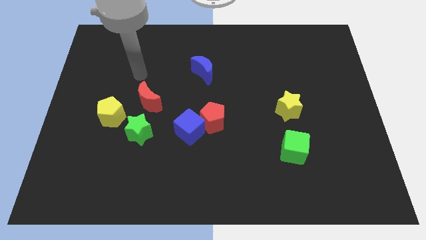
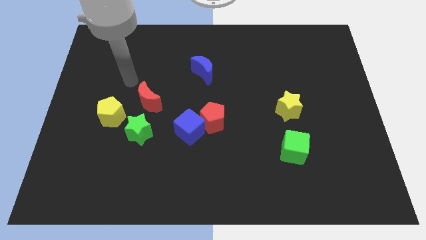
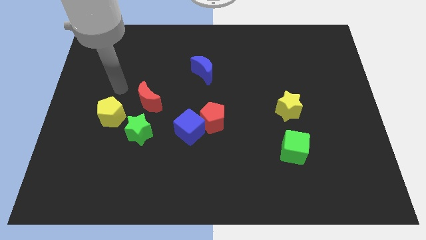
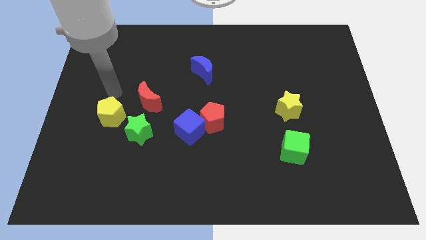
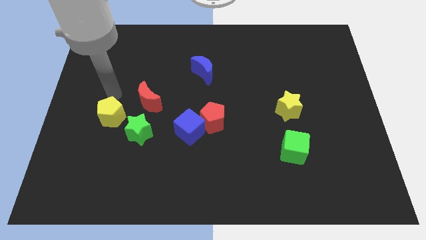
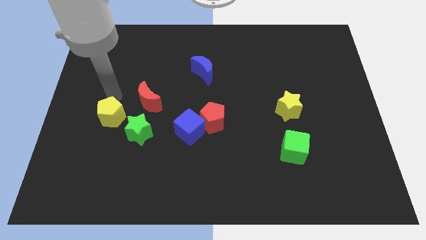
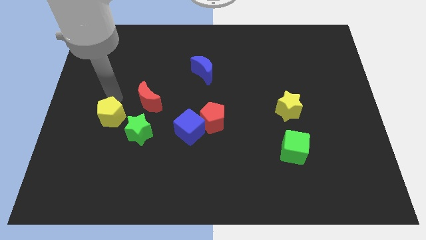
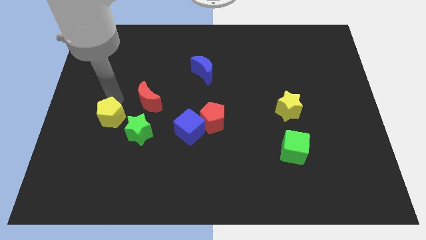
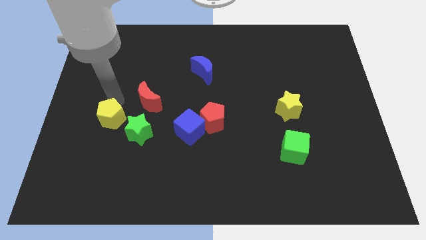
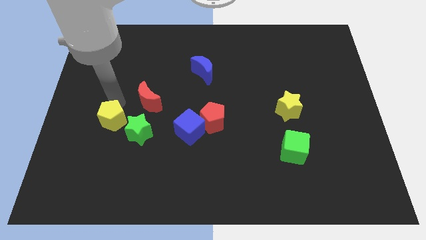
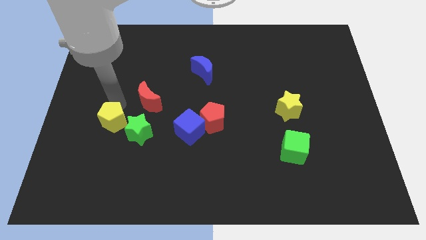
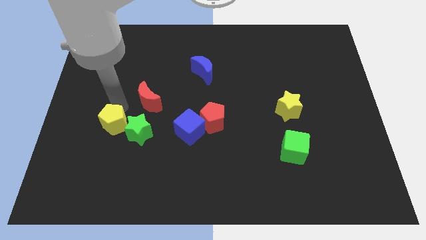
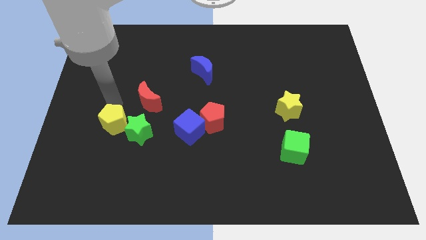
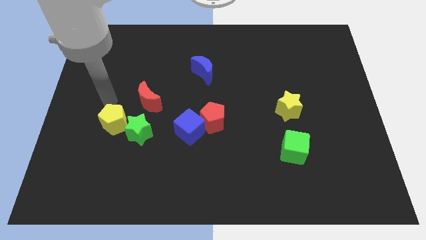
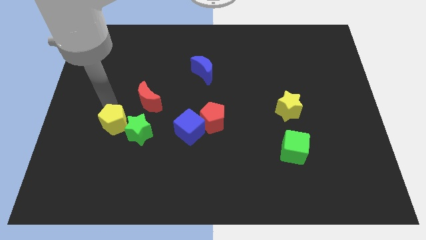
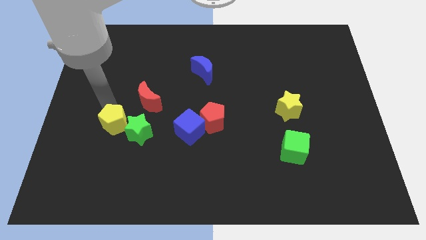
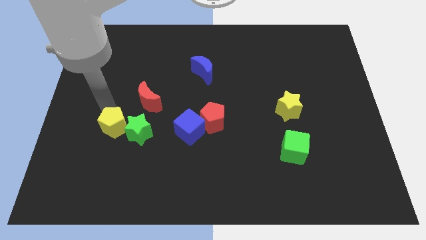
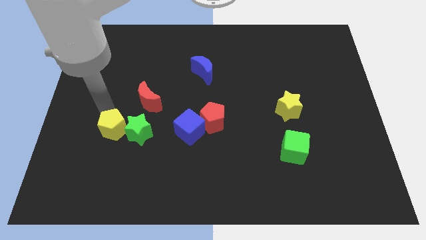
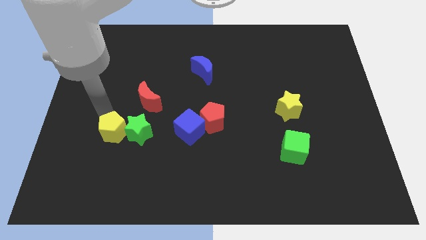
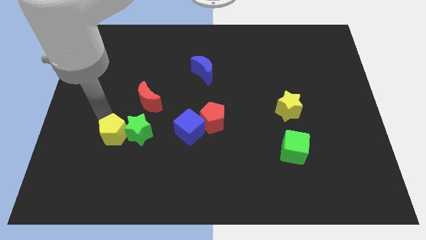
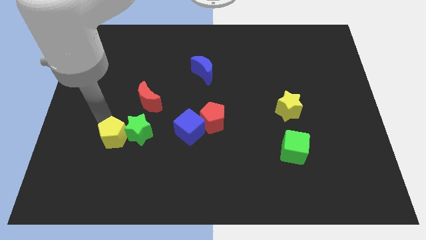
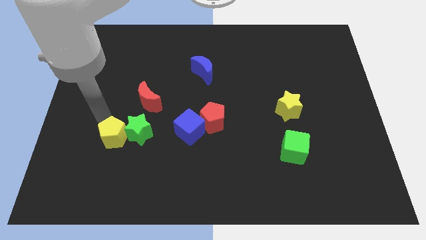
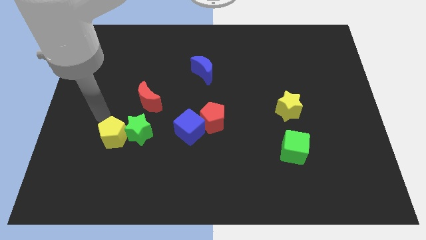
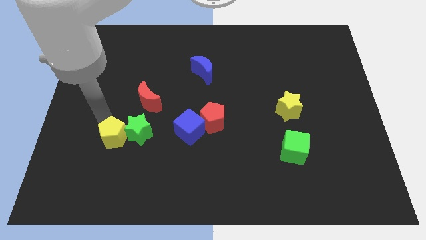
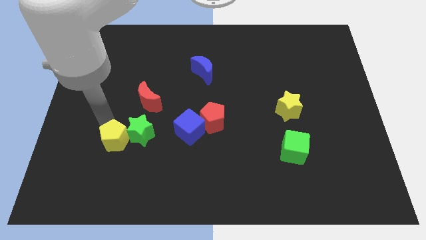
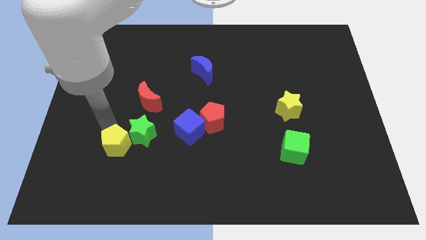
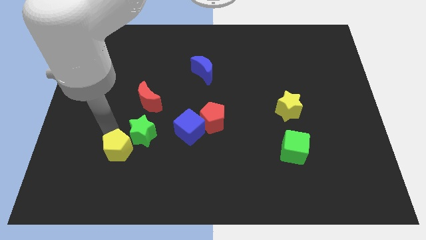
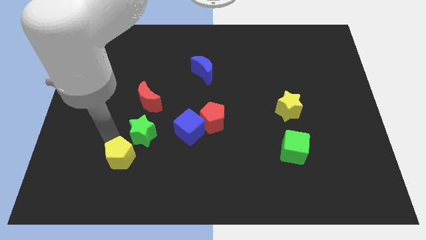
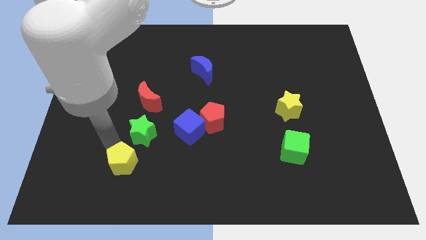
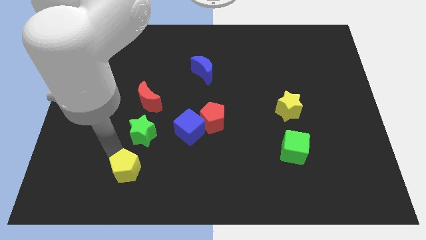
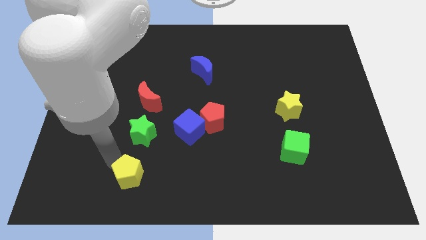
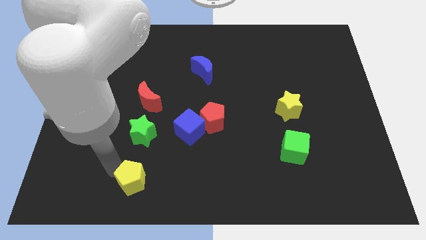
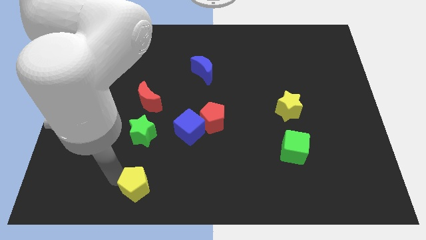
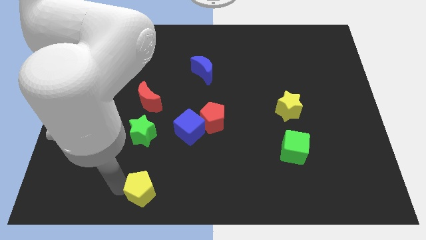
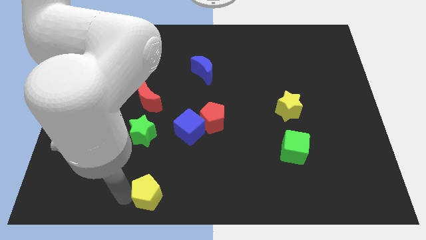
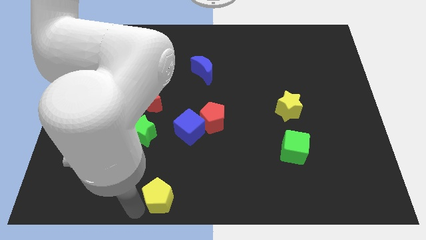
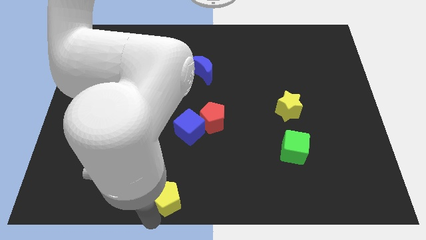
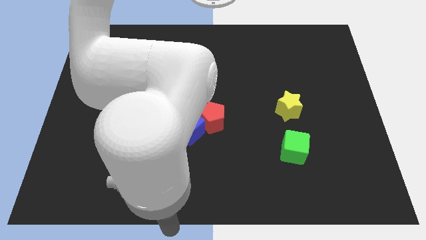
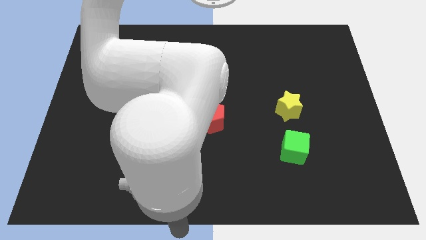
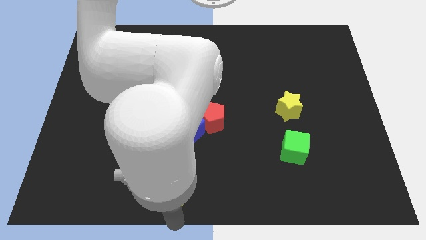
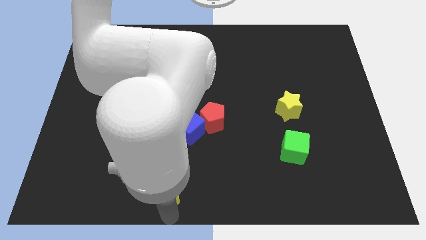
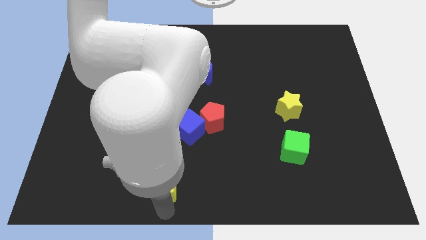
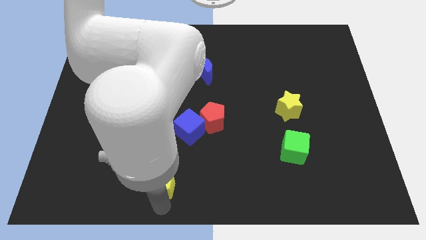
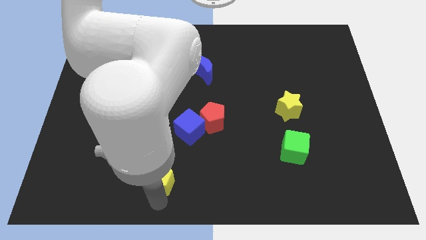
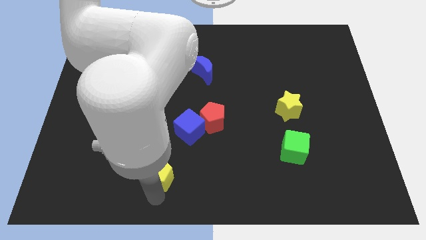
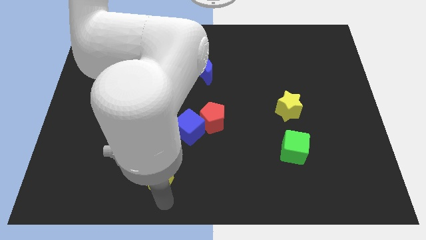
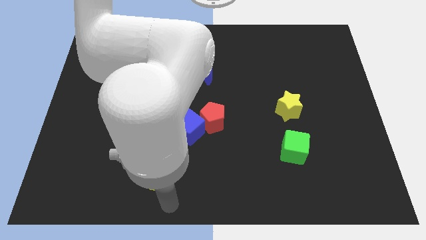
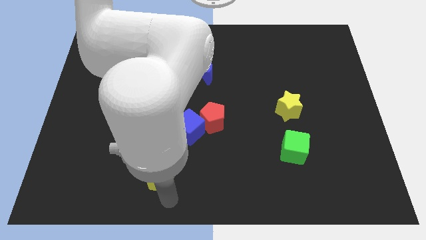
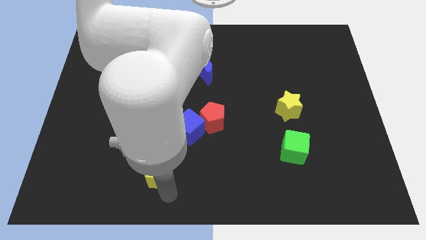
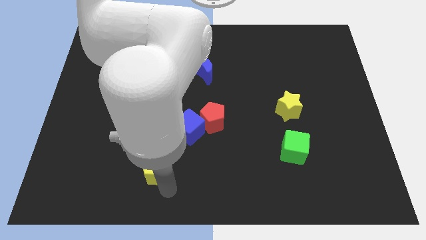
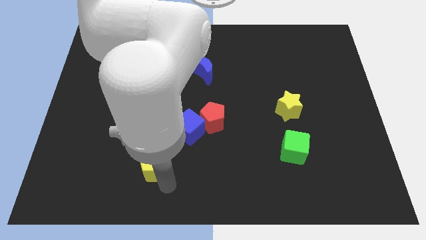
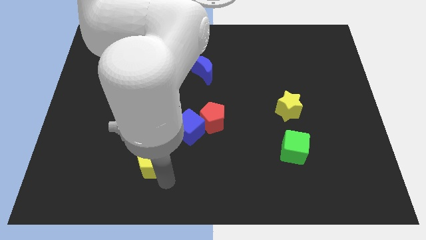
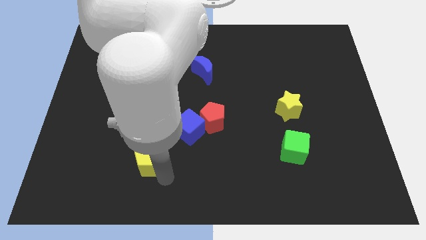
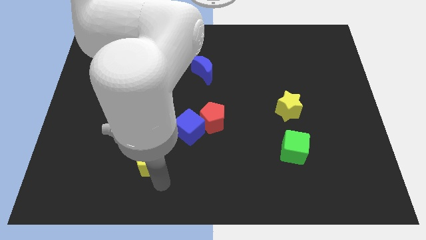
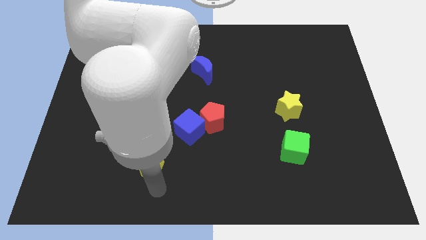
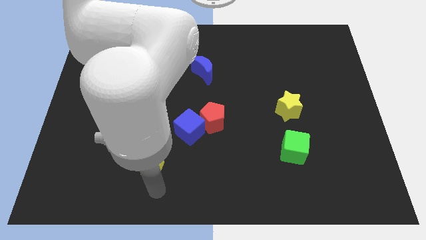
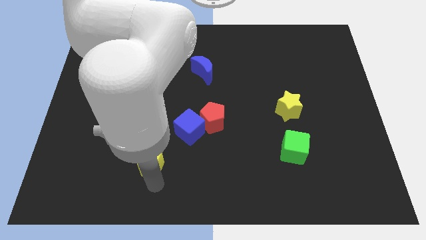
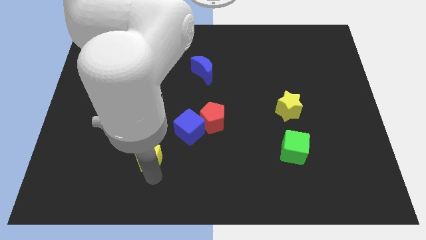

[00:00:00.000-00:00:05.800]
slide the yellow pentagon below the red moon

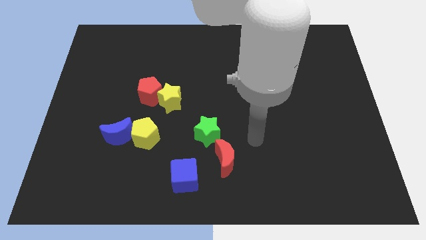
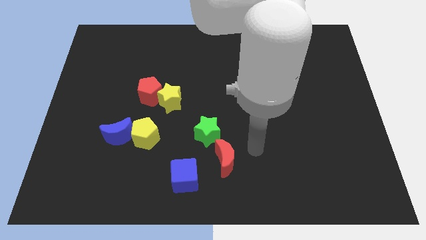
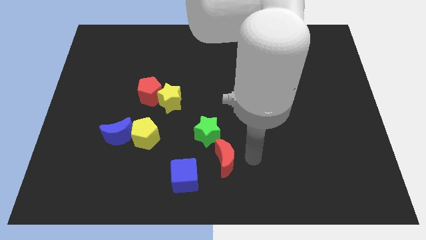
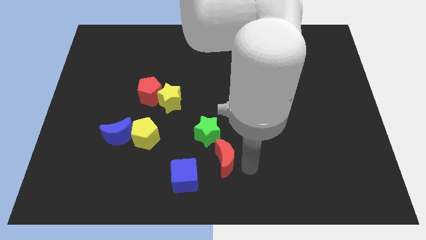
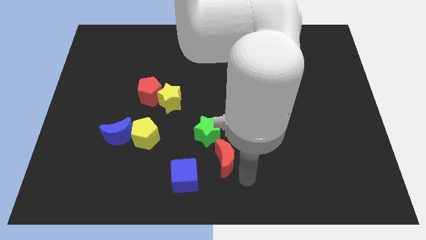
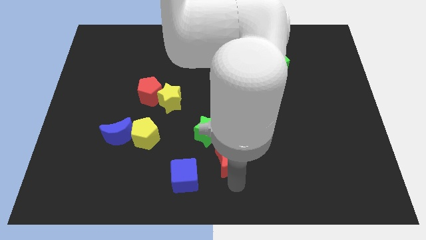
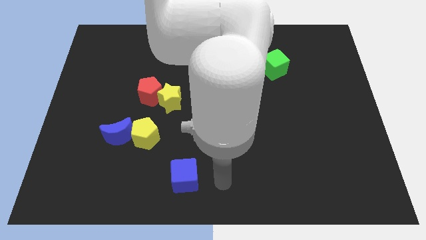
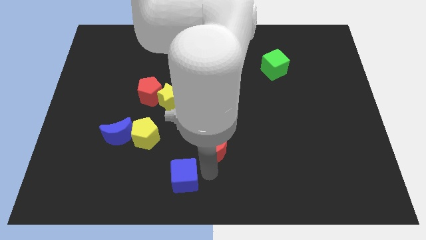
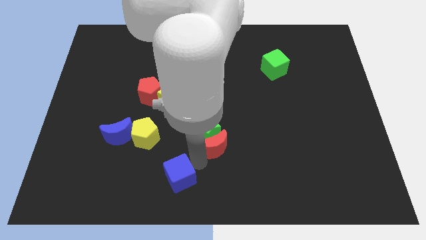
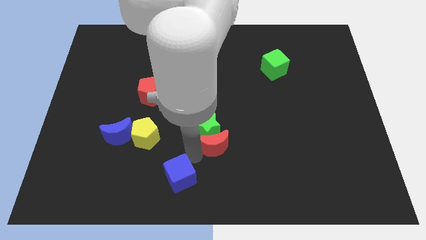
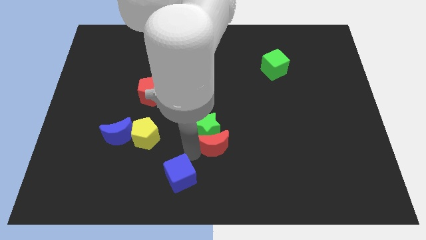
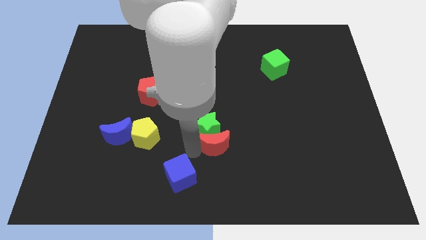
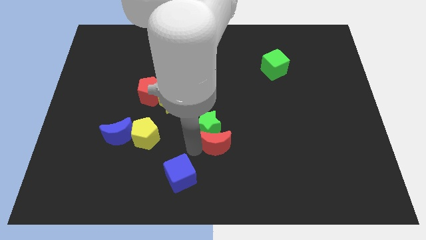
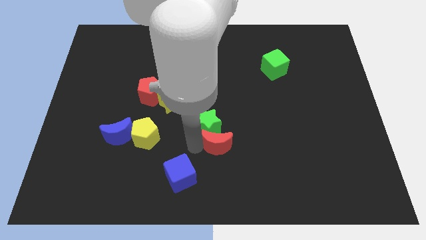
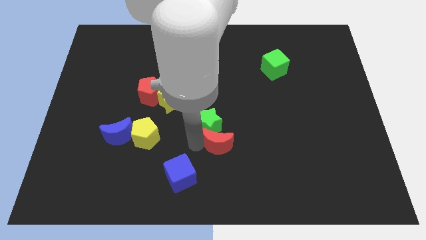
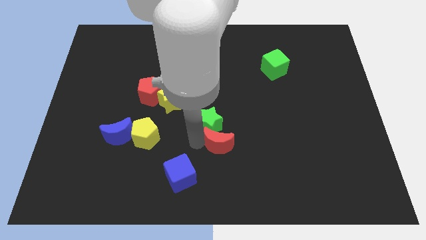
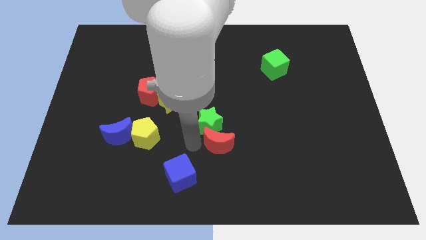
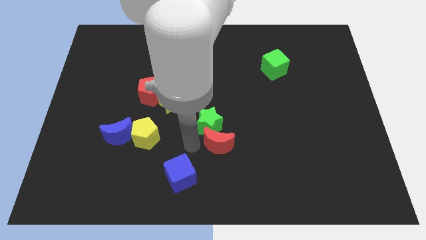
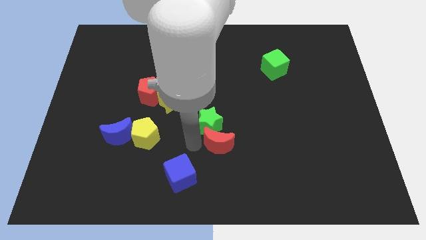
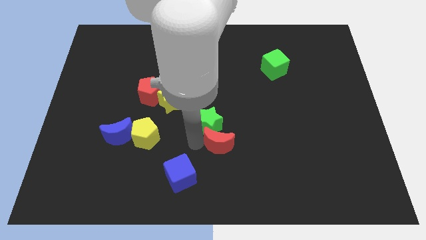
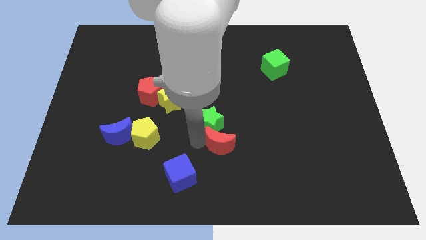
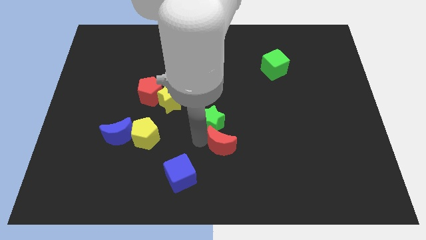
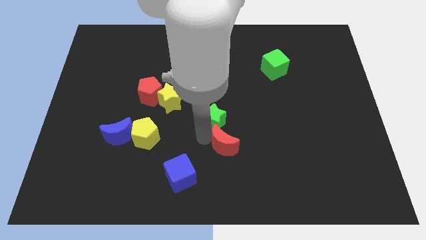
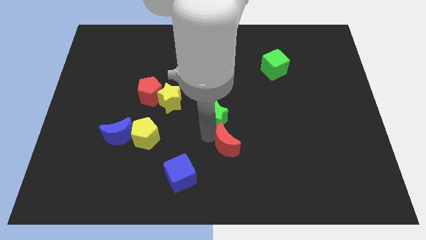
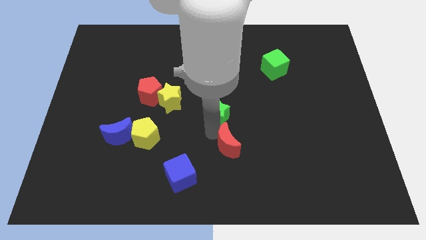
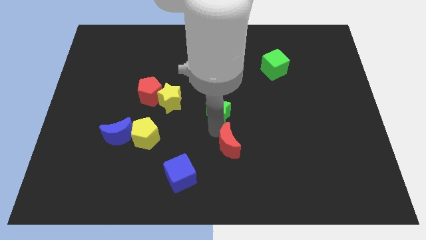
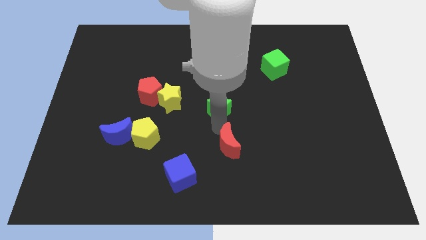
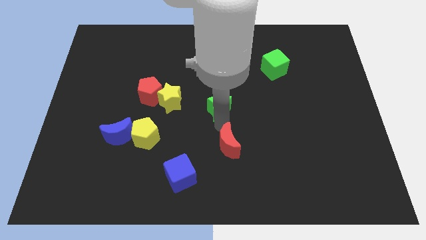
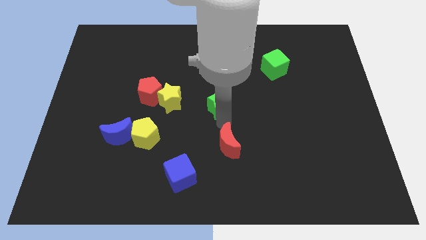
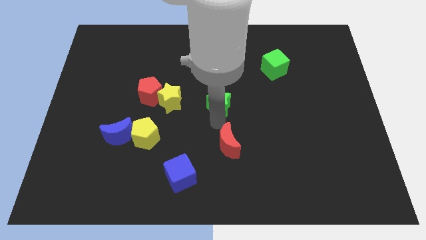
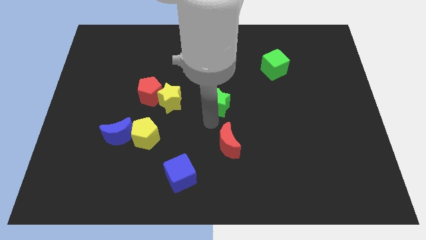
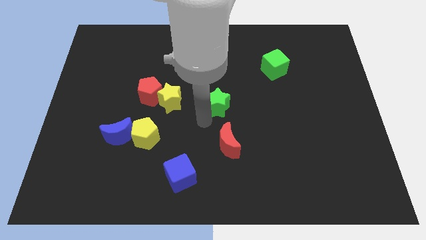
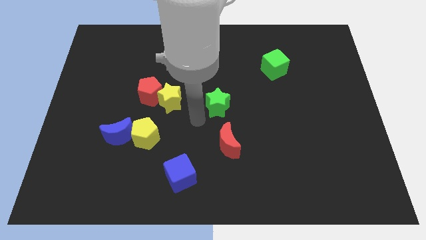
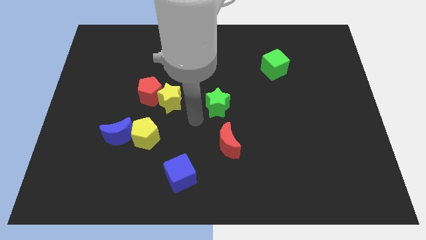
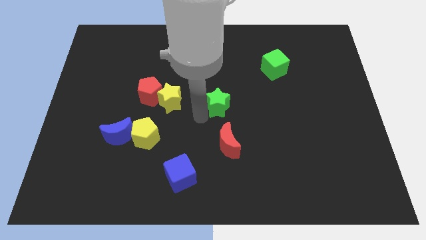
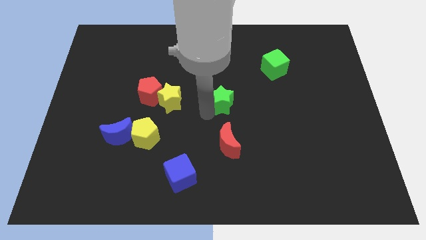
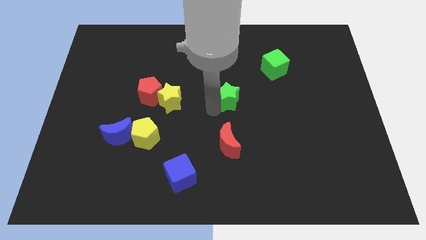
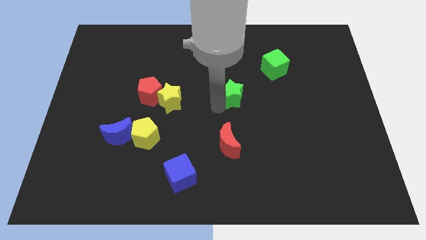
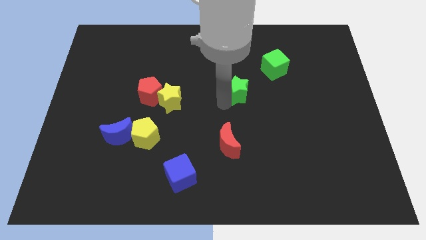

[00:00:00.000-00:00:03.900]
put the green star to the bottom left of the green cube
